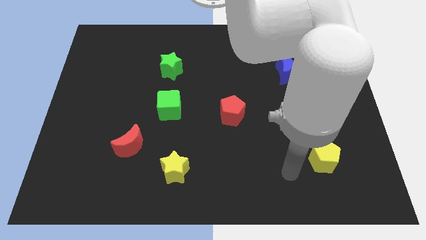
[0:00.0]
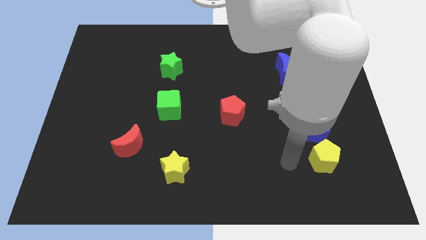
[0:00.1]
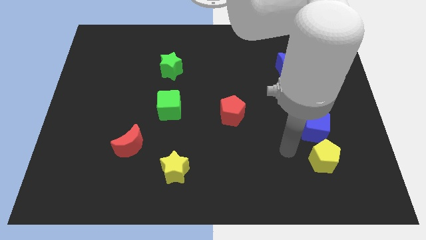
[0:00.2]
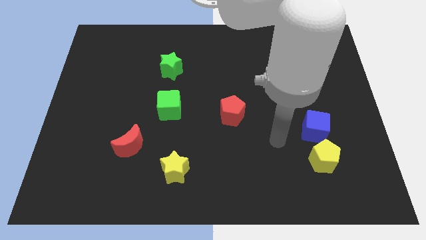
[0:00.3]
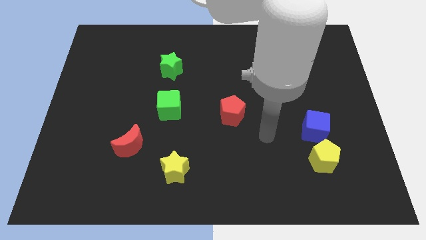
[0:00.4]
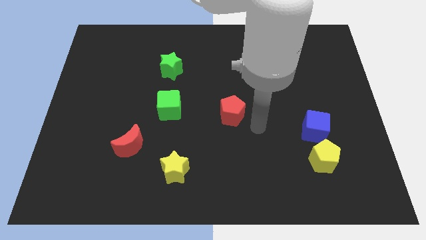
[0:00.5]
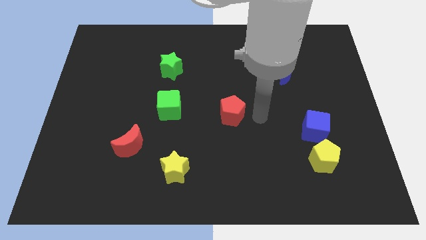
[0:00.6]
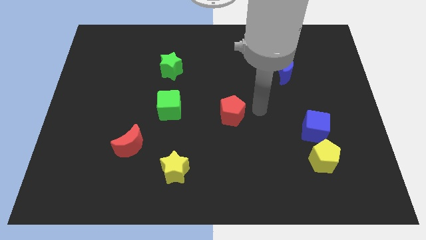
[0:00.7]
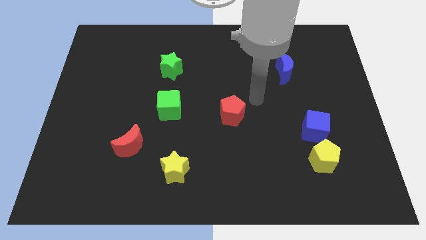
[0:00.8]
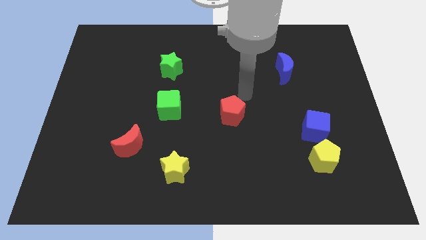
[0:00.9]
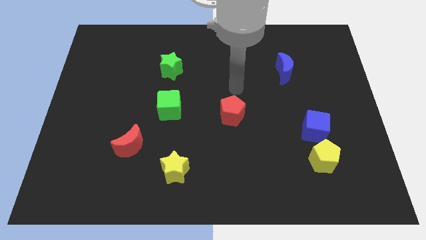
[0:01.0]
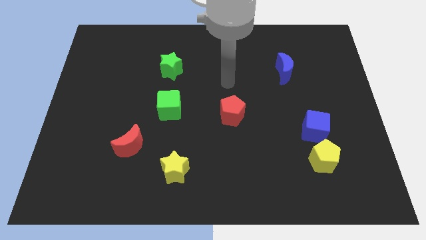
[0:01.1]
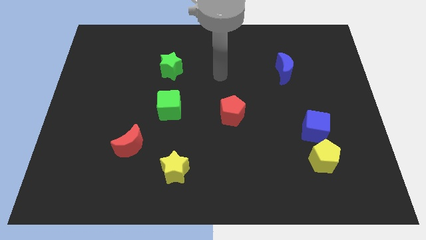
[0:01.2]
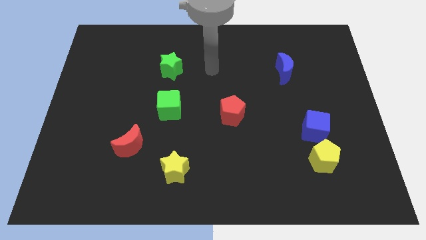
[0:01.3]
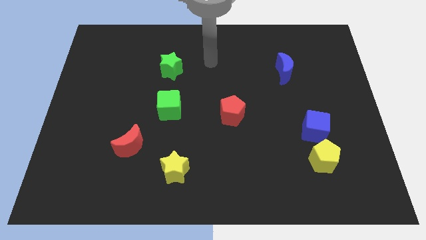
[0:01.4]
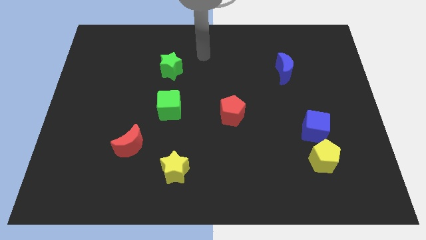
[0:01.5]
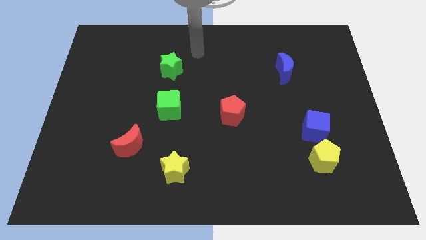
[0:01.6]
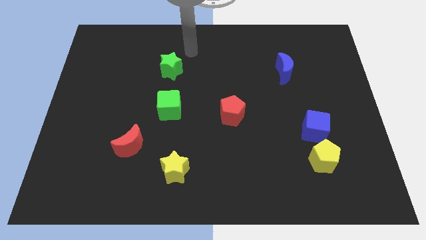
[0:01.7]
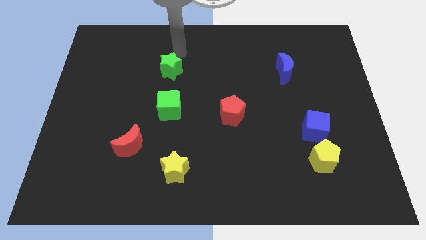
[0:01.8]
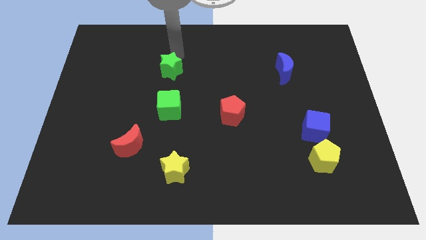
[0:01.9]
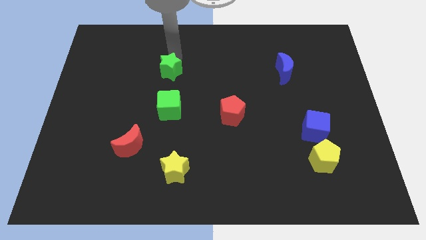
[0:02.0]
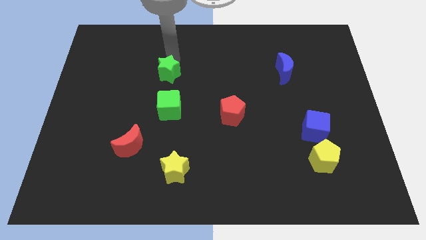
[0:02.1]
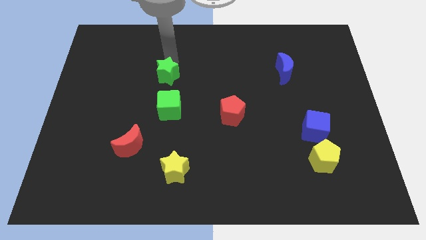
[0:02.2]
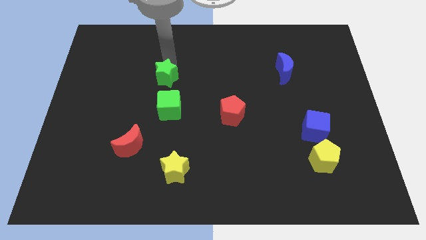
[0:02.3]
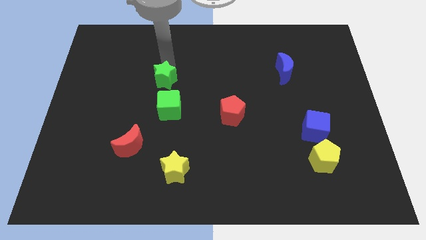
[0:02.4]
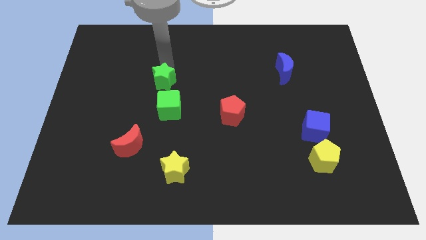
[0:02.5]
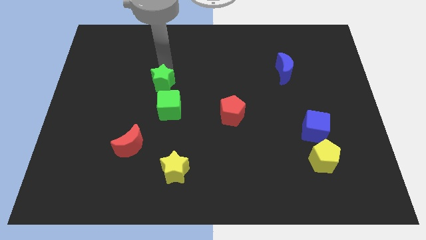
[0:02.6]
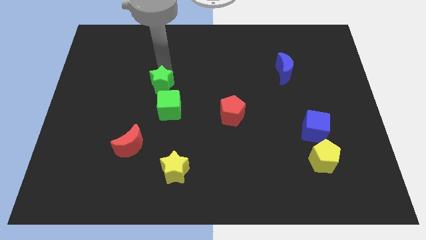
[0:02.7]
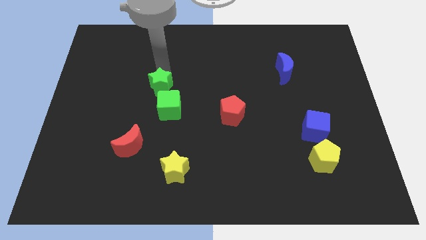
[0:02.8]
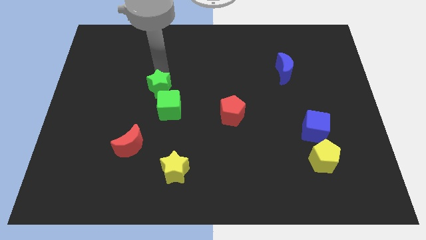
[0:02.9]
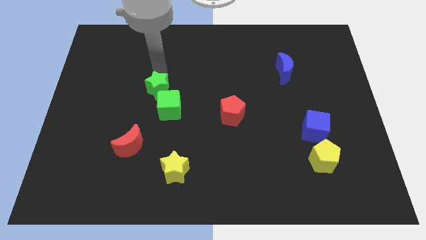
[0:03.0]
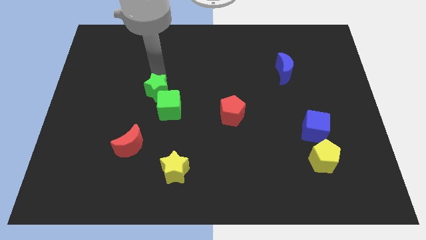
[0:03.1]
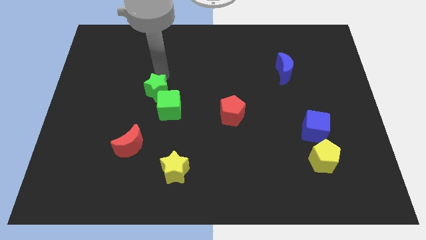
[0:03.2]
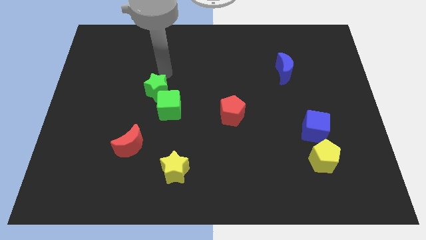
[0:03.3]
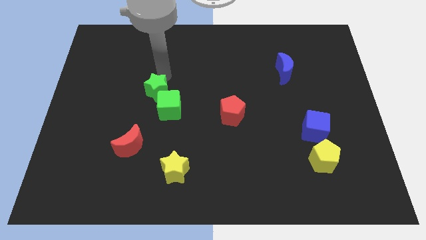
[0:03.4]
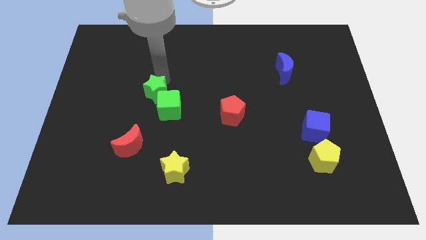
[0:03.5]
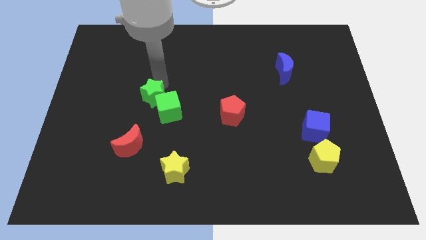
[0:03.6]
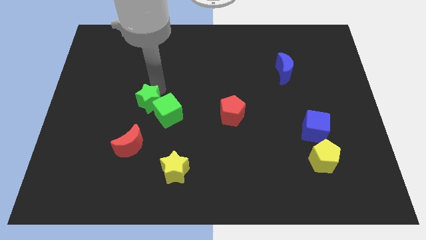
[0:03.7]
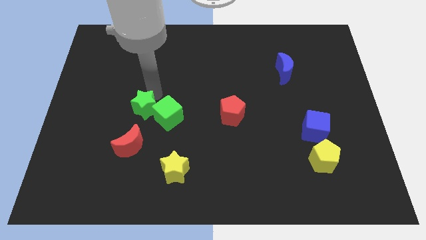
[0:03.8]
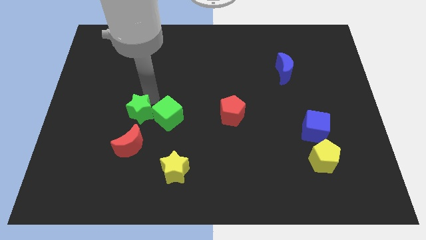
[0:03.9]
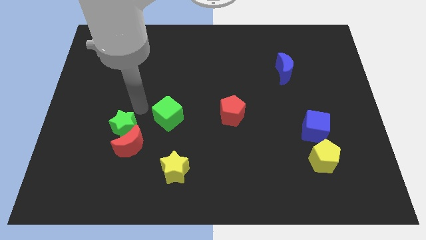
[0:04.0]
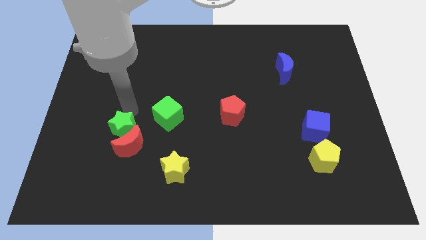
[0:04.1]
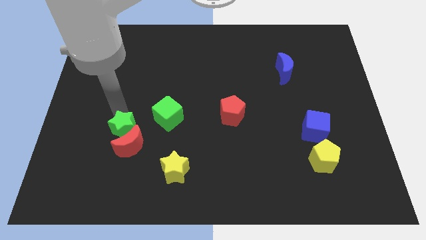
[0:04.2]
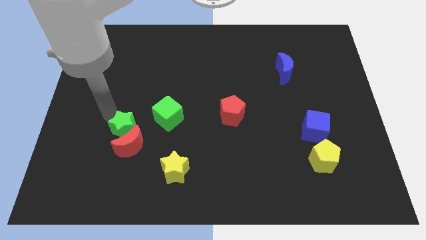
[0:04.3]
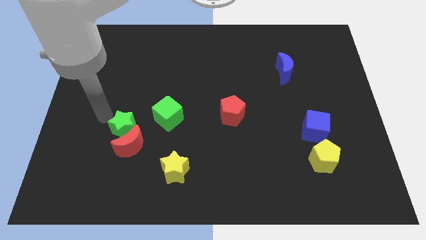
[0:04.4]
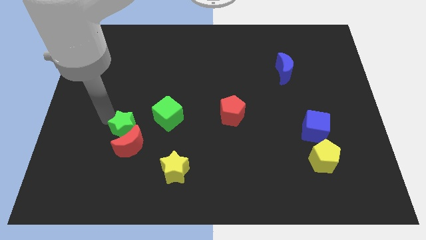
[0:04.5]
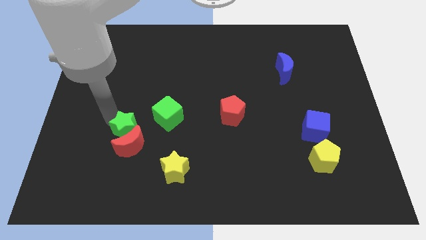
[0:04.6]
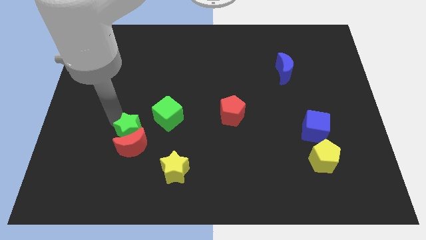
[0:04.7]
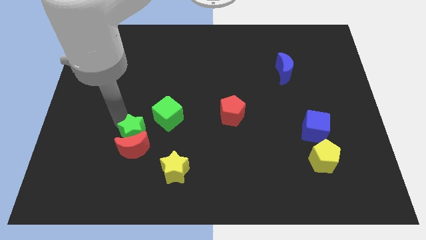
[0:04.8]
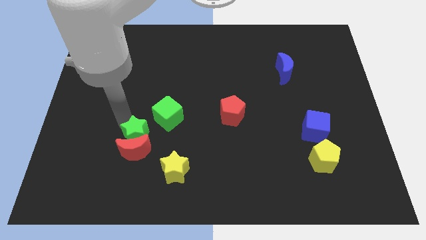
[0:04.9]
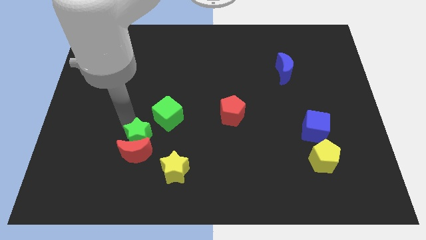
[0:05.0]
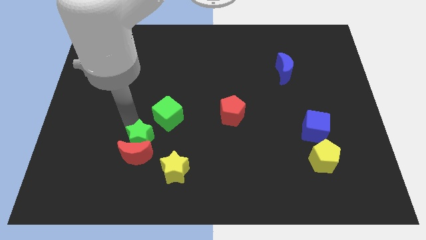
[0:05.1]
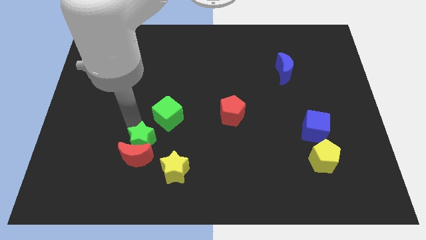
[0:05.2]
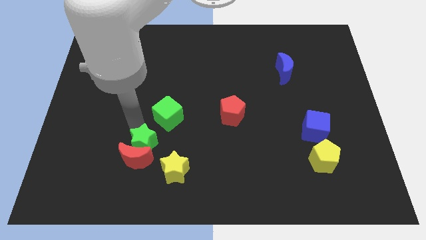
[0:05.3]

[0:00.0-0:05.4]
slide the green star to the bottom of the green cube

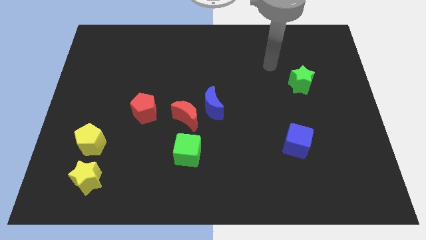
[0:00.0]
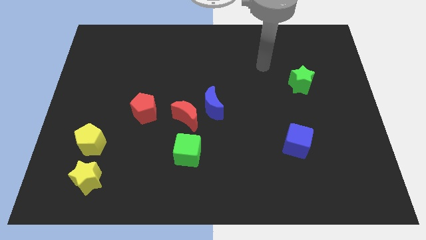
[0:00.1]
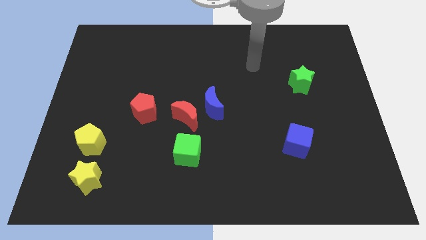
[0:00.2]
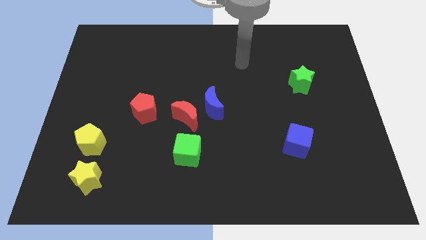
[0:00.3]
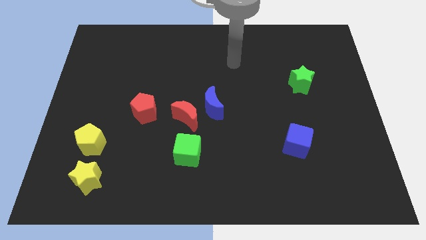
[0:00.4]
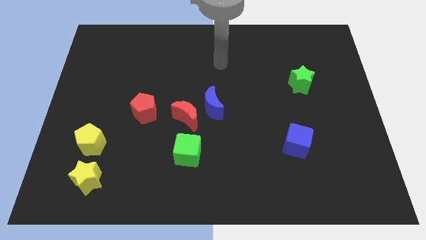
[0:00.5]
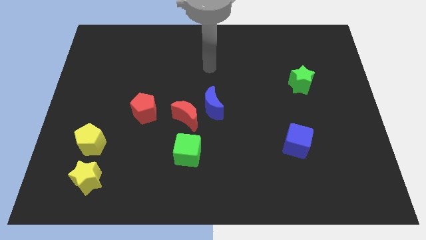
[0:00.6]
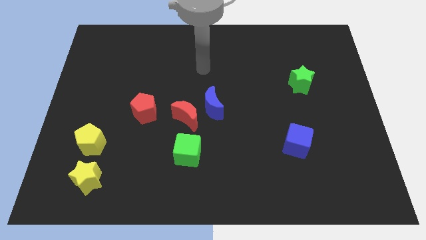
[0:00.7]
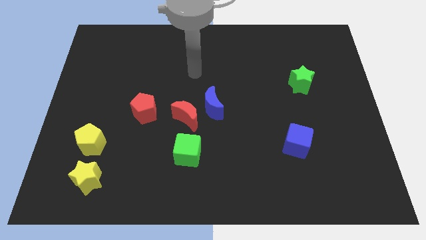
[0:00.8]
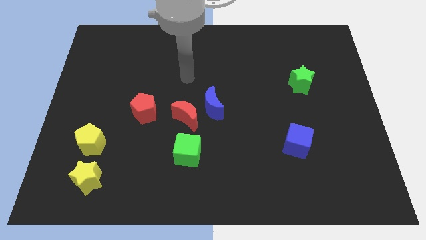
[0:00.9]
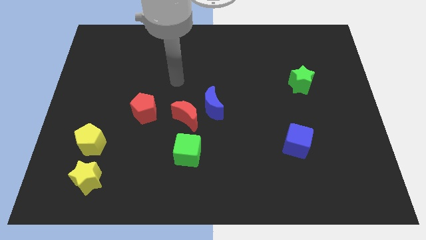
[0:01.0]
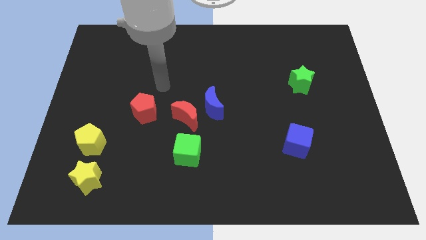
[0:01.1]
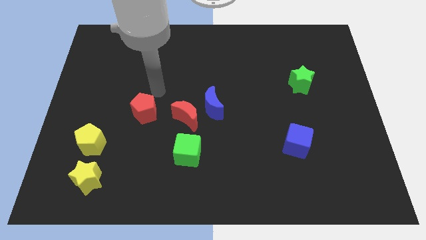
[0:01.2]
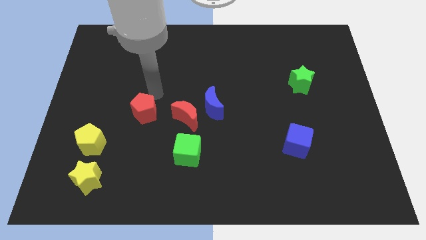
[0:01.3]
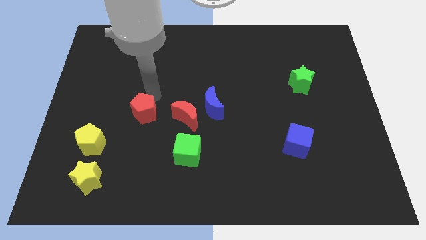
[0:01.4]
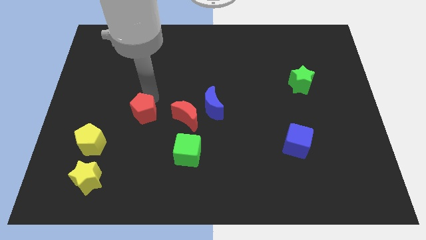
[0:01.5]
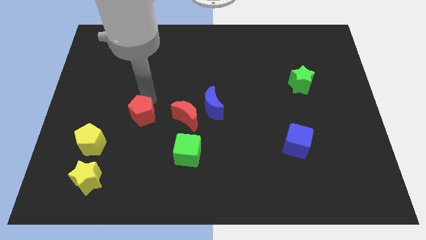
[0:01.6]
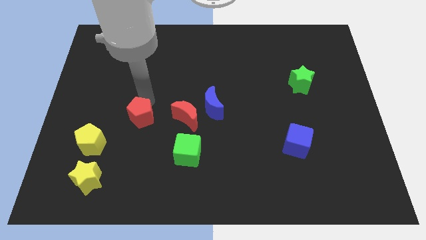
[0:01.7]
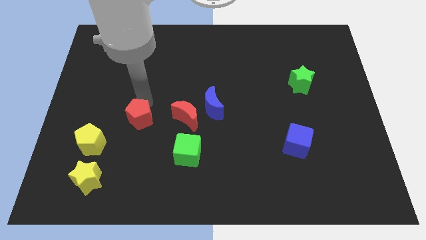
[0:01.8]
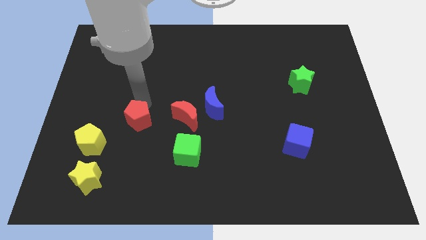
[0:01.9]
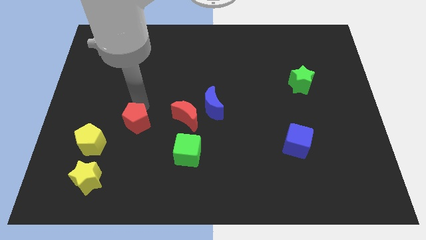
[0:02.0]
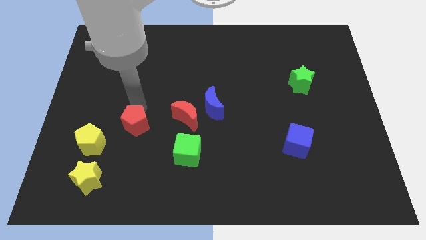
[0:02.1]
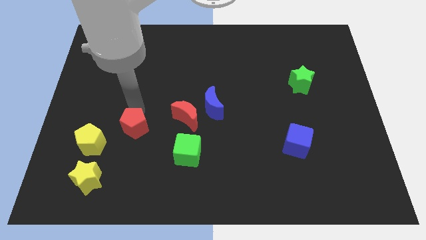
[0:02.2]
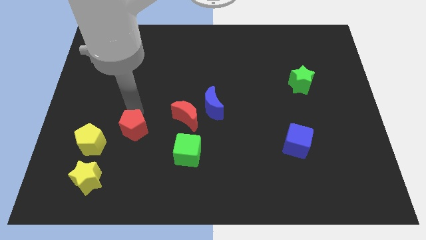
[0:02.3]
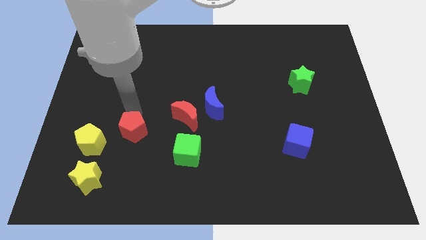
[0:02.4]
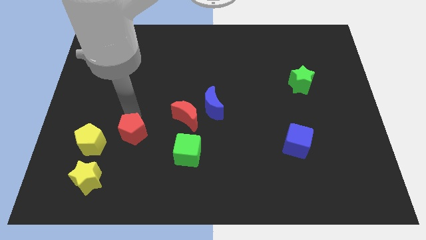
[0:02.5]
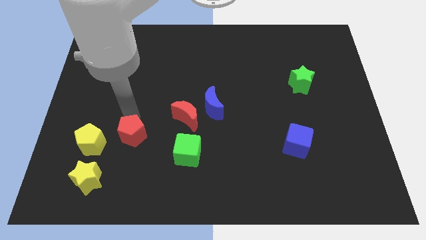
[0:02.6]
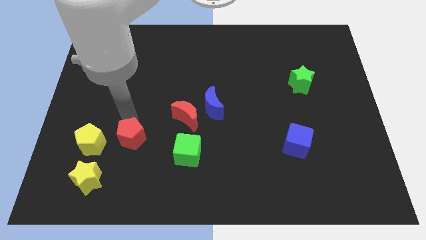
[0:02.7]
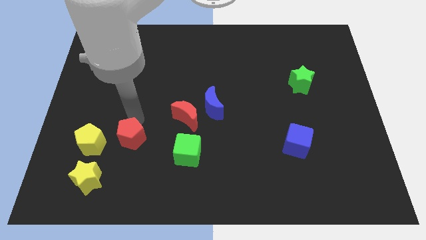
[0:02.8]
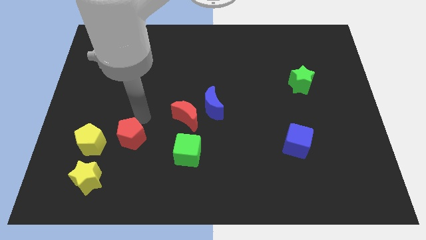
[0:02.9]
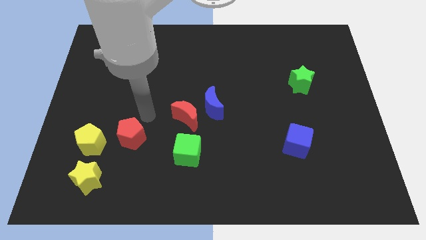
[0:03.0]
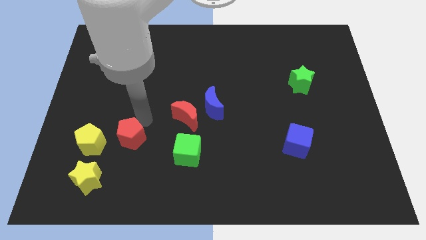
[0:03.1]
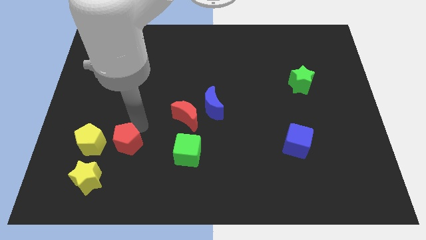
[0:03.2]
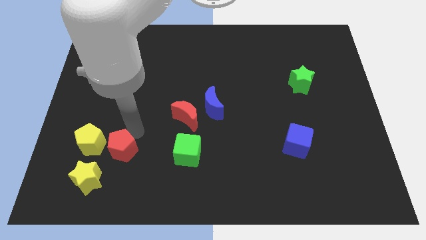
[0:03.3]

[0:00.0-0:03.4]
put the red pentagon diagonally down and to the right of the yellow pentagon
